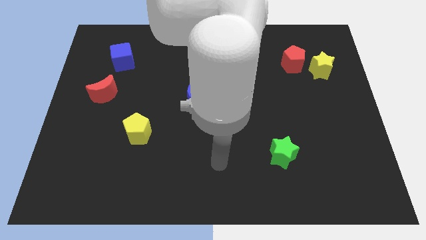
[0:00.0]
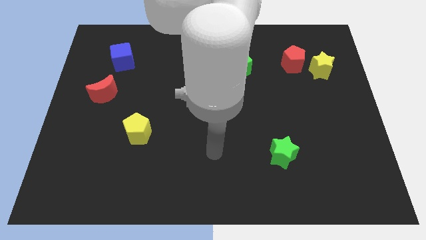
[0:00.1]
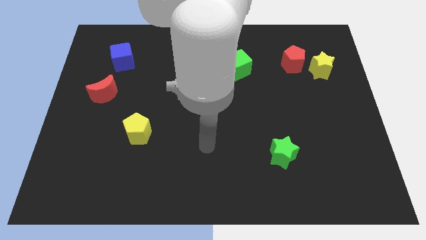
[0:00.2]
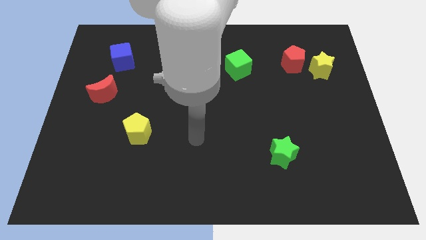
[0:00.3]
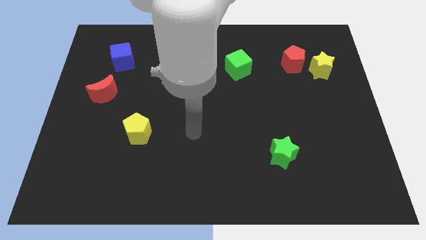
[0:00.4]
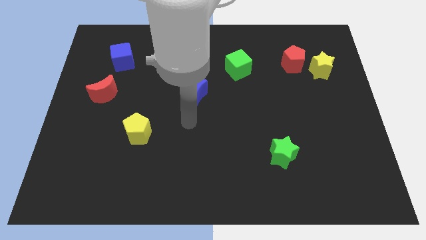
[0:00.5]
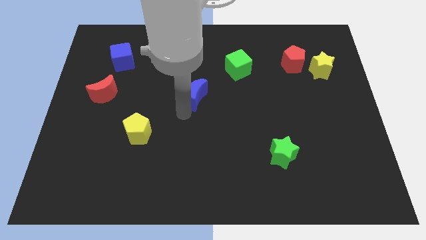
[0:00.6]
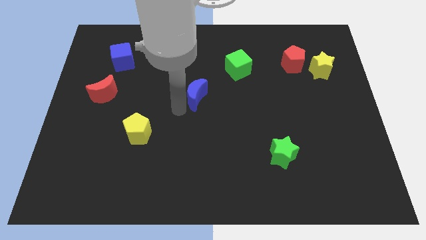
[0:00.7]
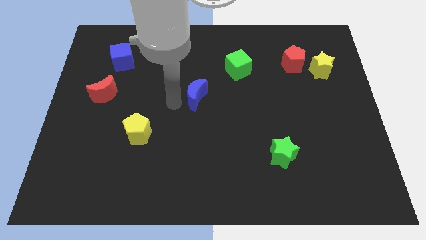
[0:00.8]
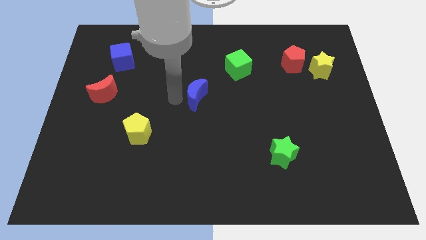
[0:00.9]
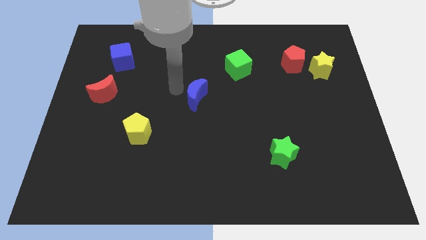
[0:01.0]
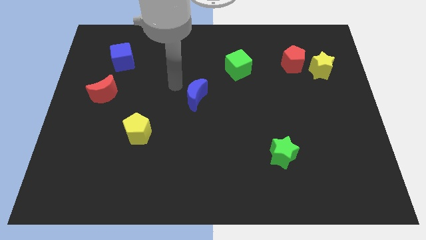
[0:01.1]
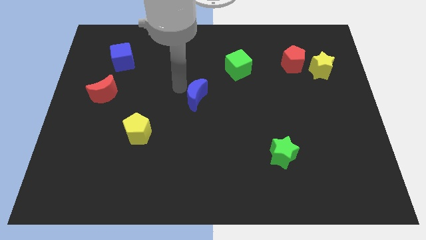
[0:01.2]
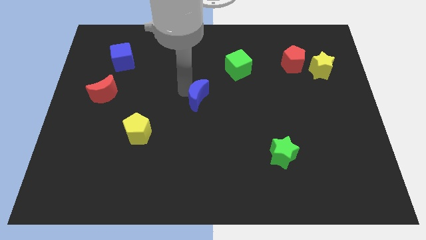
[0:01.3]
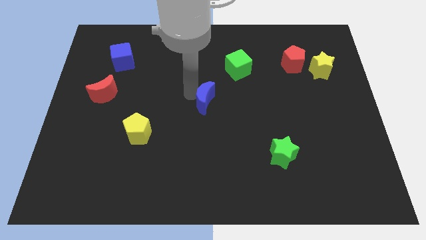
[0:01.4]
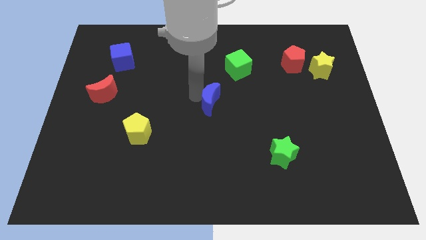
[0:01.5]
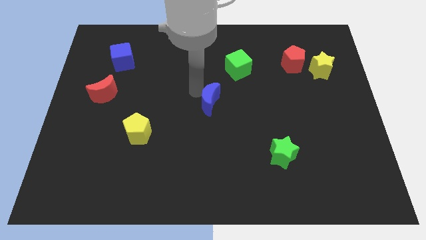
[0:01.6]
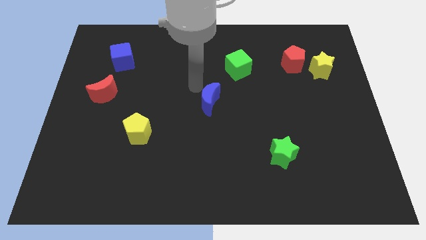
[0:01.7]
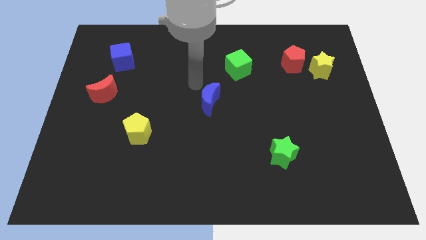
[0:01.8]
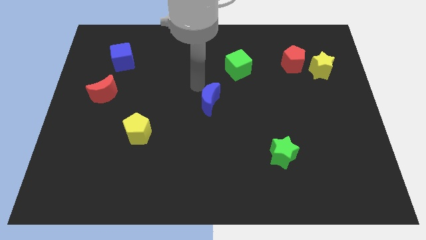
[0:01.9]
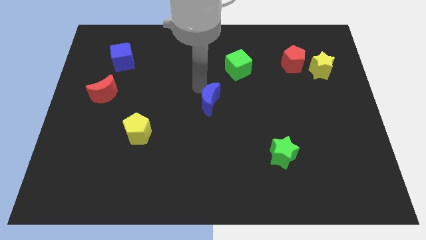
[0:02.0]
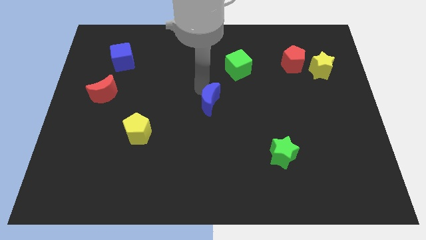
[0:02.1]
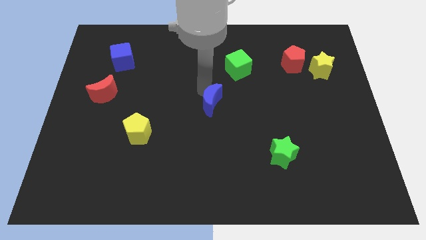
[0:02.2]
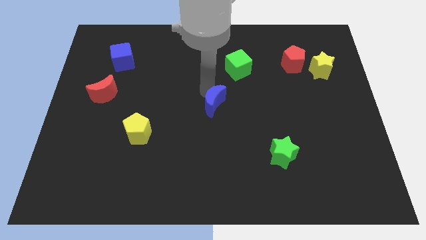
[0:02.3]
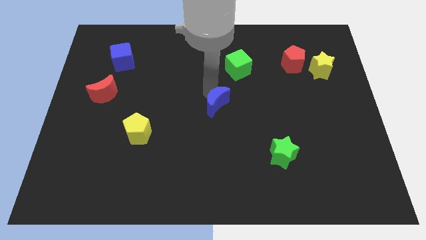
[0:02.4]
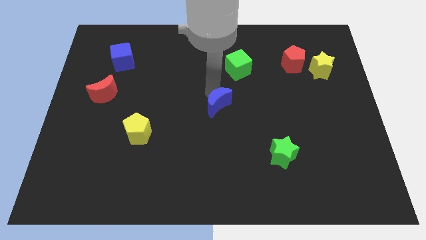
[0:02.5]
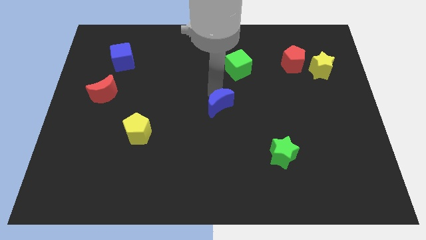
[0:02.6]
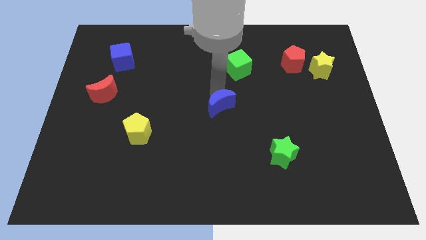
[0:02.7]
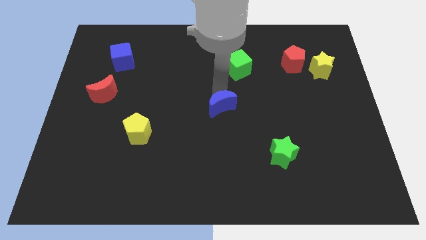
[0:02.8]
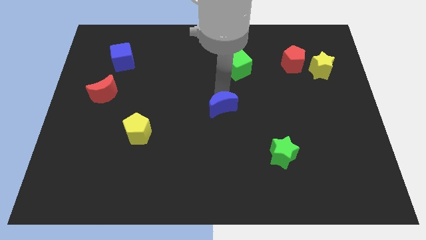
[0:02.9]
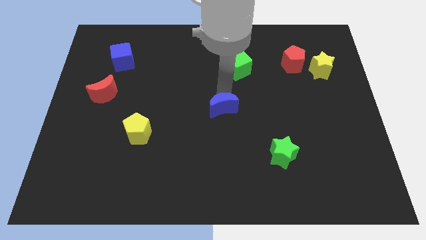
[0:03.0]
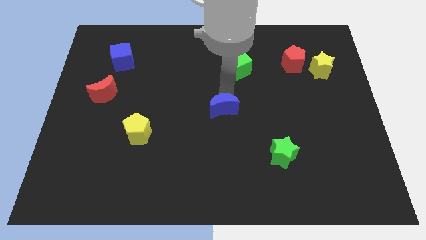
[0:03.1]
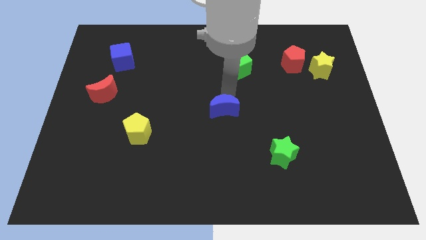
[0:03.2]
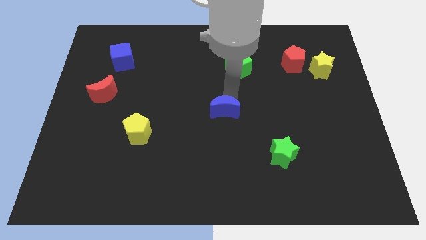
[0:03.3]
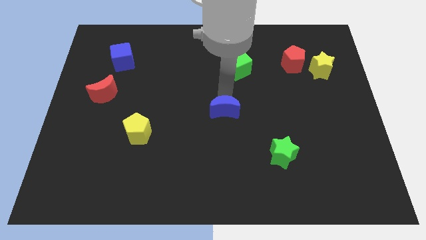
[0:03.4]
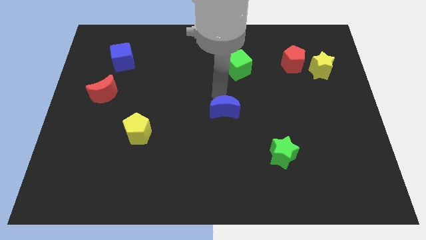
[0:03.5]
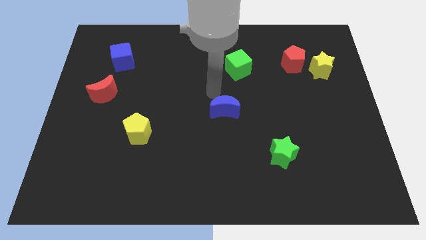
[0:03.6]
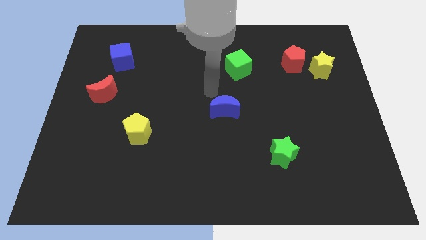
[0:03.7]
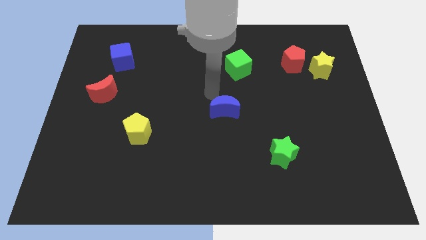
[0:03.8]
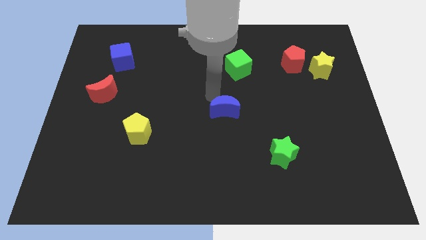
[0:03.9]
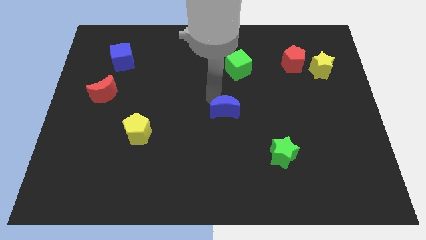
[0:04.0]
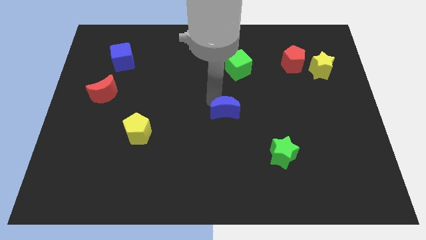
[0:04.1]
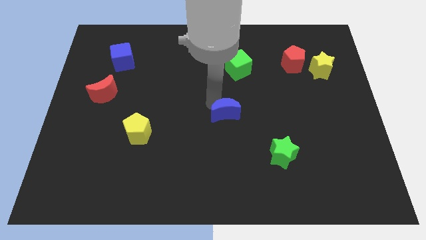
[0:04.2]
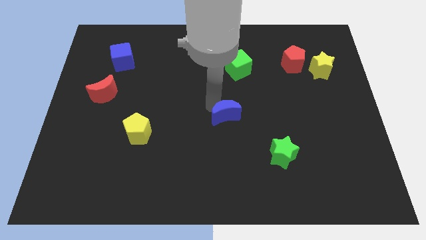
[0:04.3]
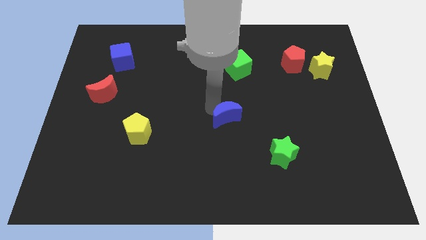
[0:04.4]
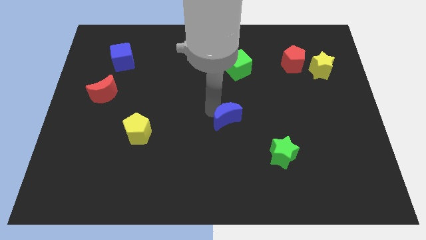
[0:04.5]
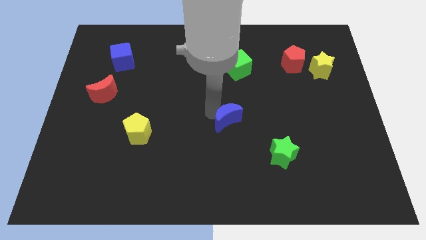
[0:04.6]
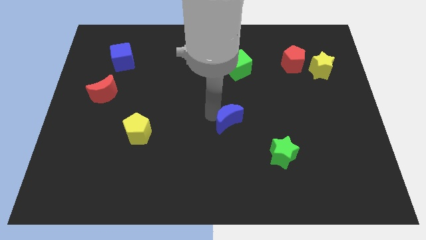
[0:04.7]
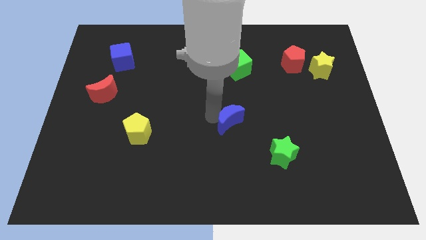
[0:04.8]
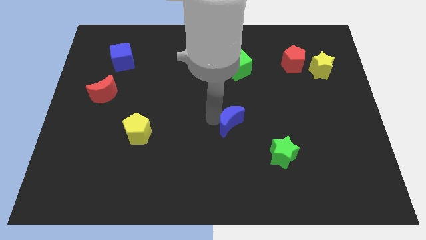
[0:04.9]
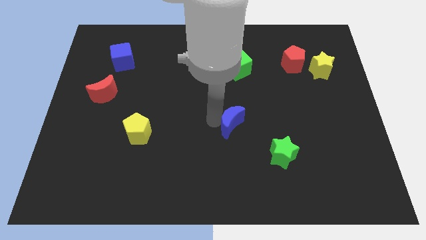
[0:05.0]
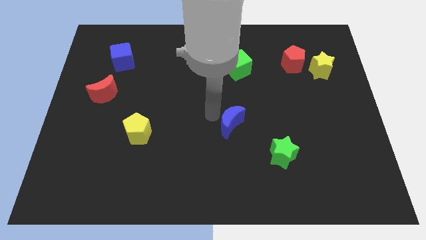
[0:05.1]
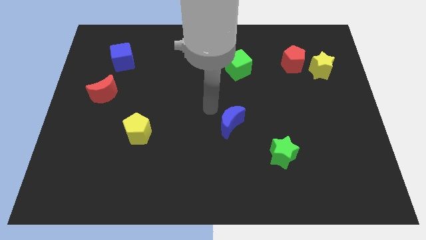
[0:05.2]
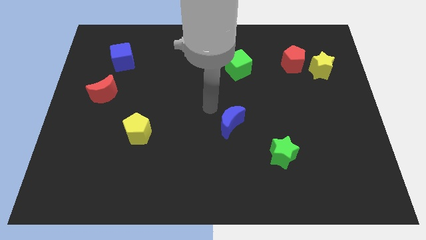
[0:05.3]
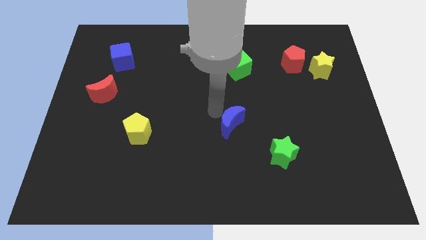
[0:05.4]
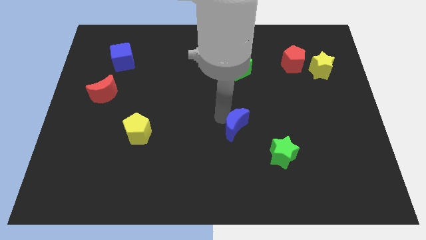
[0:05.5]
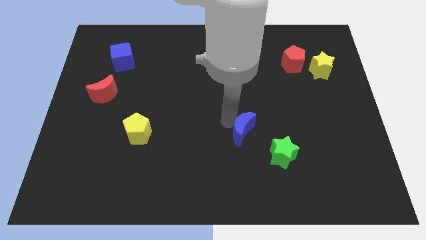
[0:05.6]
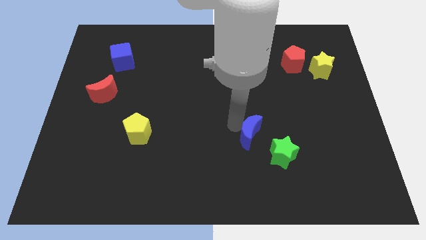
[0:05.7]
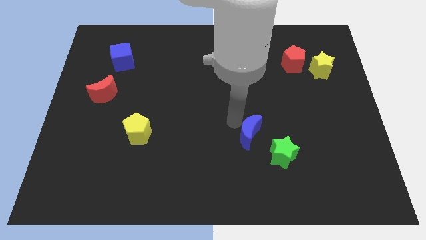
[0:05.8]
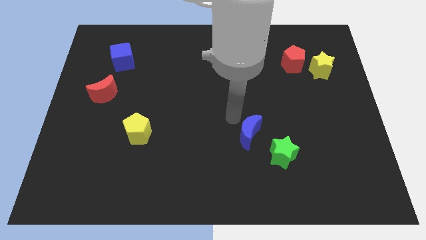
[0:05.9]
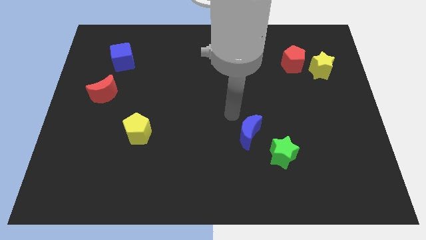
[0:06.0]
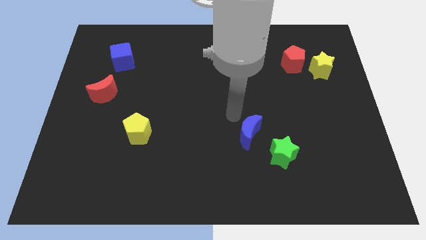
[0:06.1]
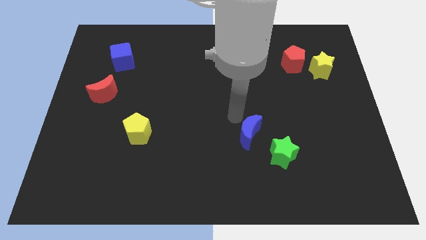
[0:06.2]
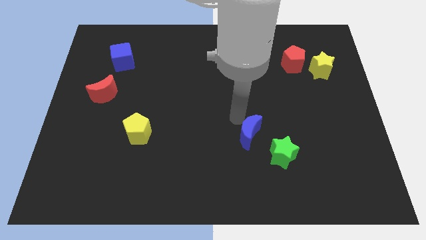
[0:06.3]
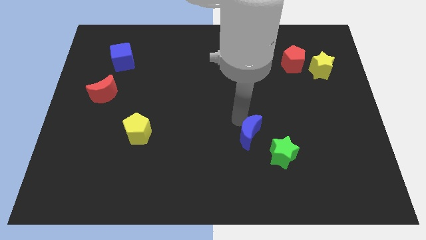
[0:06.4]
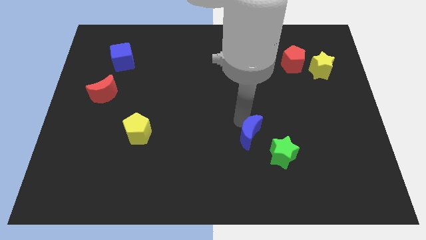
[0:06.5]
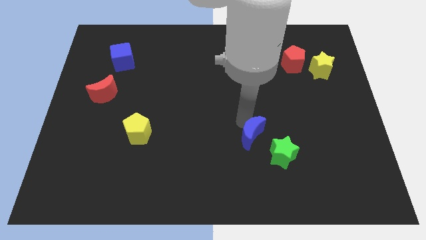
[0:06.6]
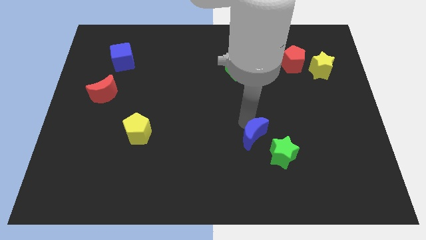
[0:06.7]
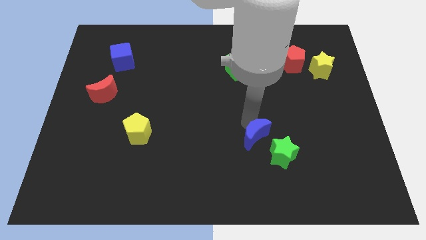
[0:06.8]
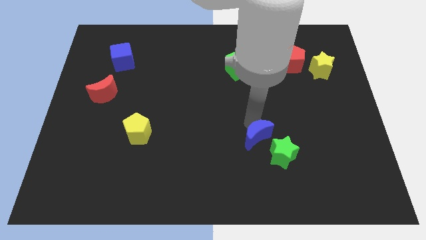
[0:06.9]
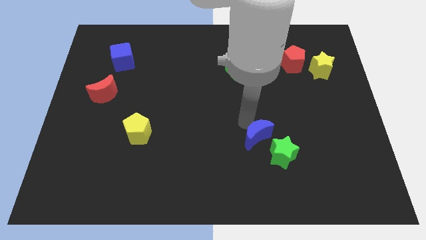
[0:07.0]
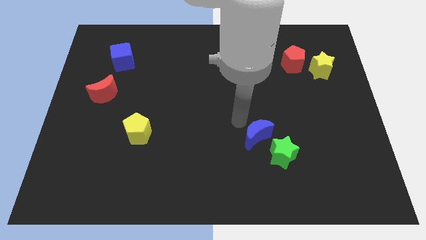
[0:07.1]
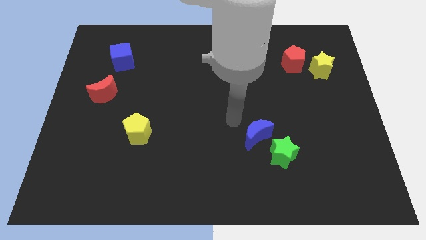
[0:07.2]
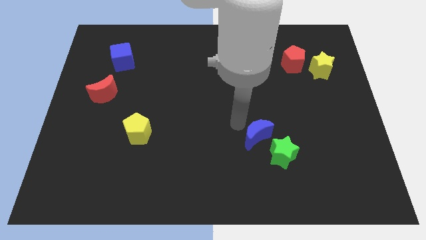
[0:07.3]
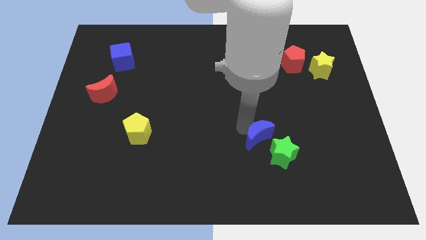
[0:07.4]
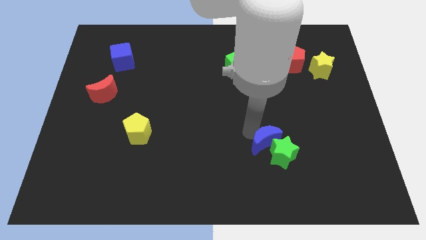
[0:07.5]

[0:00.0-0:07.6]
slide the blue moon close to the green star
